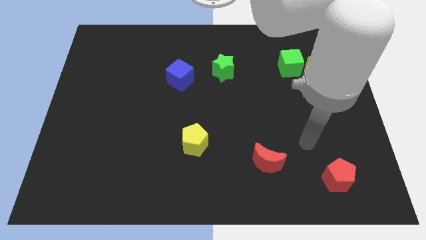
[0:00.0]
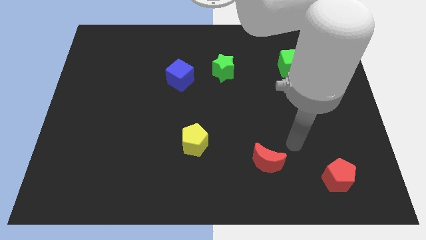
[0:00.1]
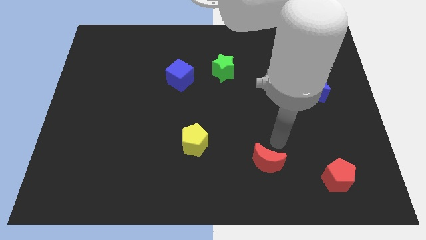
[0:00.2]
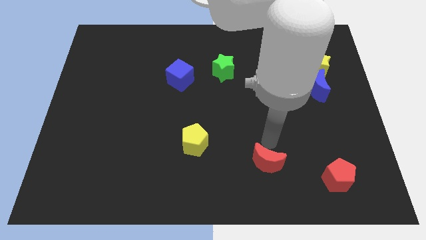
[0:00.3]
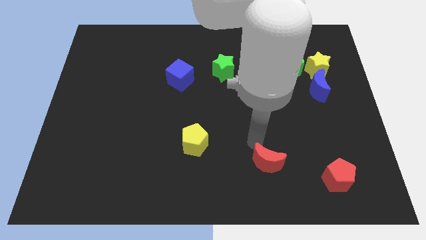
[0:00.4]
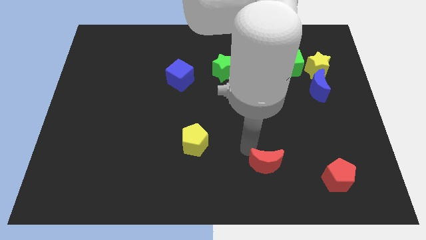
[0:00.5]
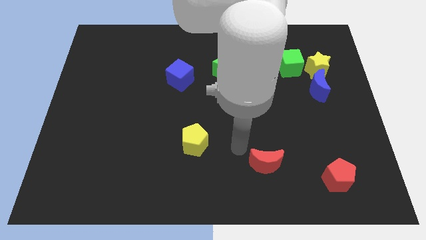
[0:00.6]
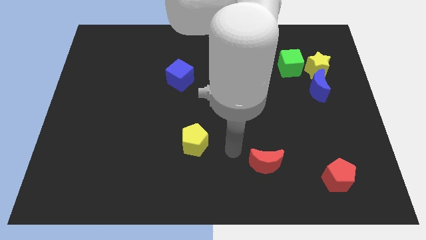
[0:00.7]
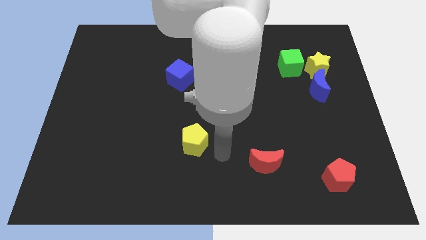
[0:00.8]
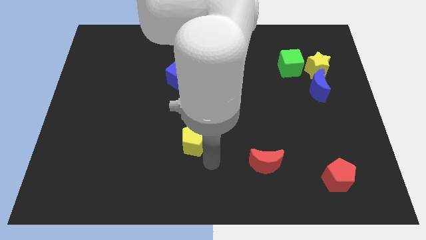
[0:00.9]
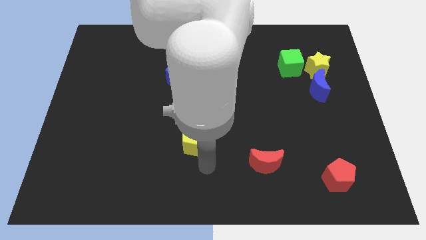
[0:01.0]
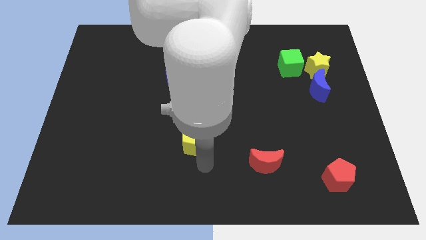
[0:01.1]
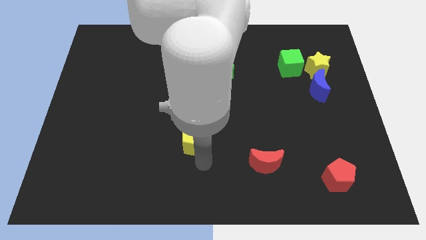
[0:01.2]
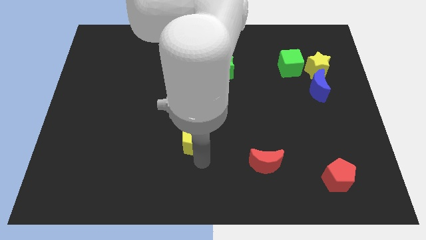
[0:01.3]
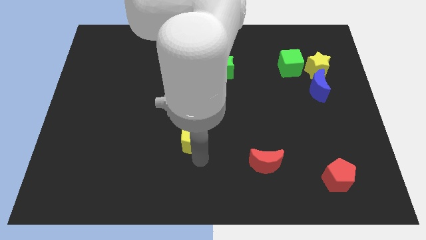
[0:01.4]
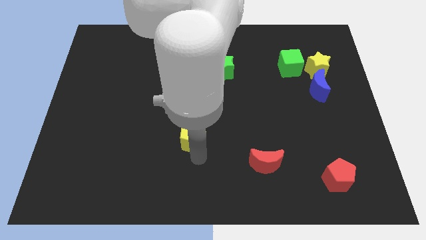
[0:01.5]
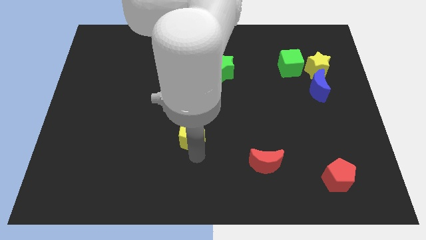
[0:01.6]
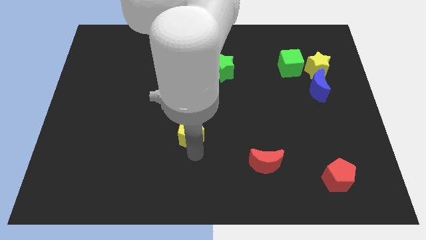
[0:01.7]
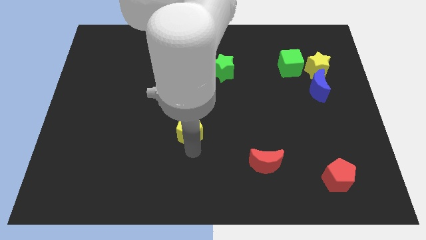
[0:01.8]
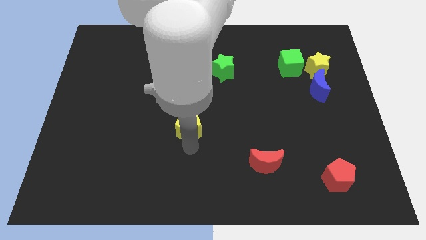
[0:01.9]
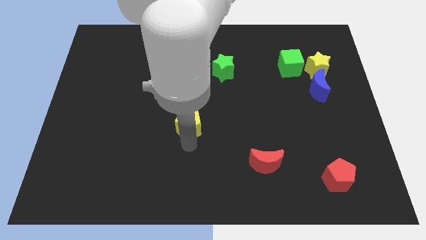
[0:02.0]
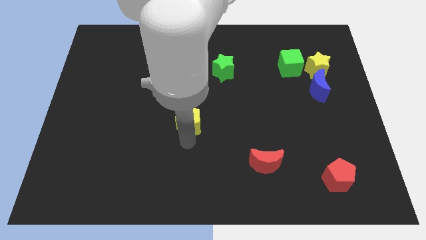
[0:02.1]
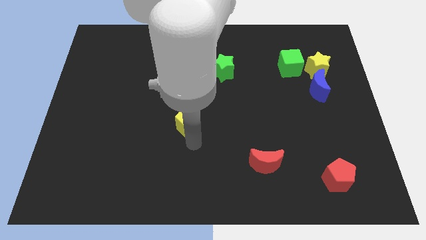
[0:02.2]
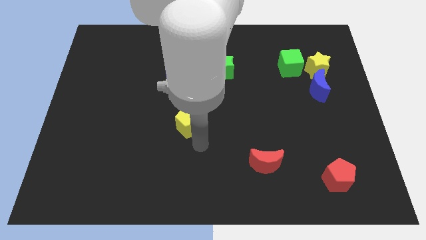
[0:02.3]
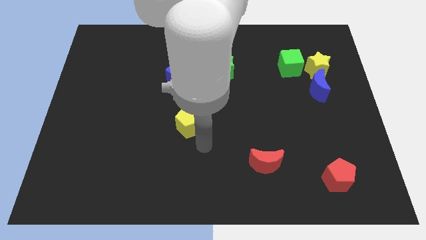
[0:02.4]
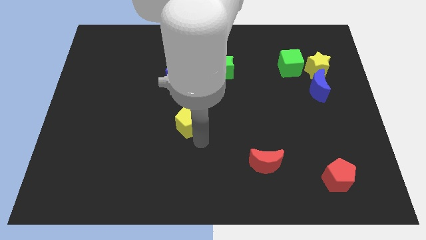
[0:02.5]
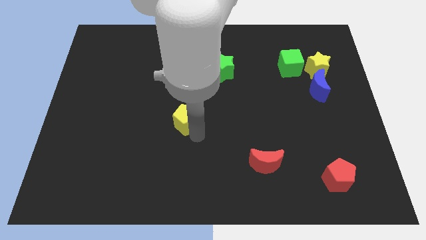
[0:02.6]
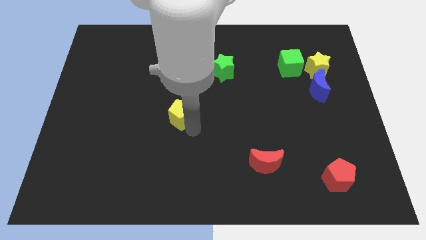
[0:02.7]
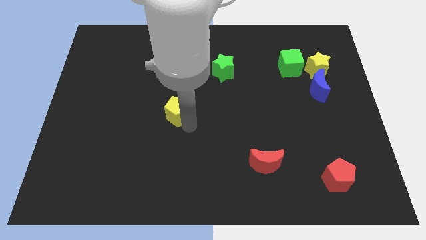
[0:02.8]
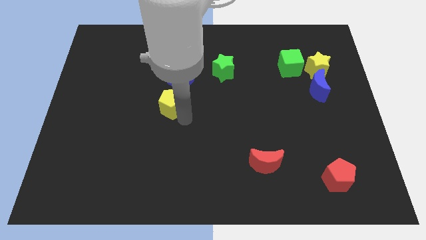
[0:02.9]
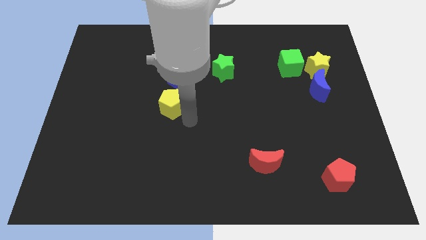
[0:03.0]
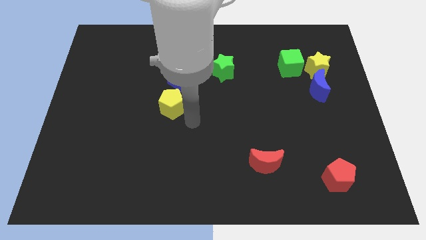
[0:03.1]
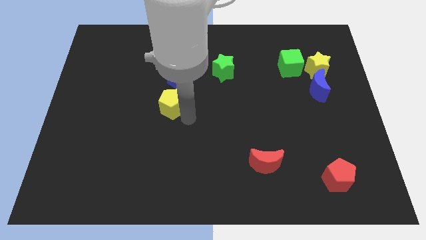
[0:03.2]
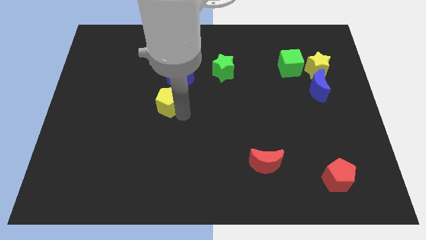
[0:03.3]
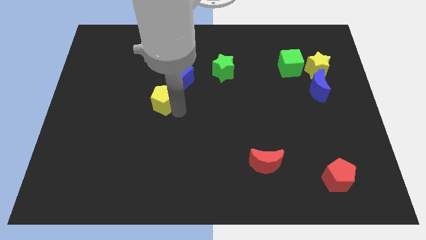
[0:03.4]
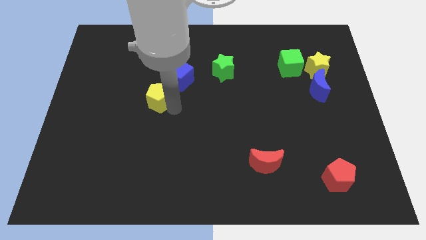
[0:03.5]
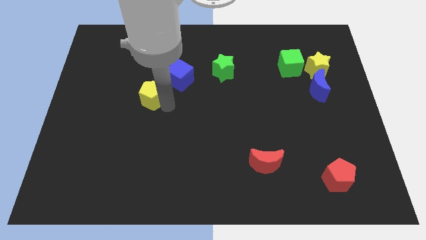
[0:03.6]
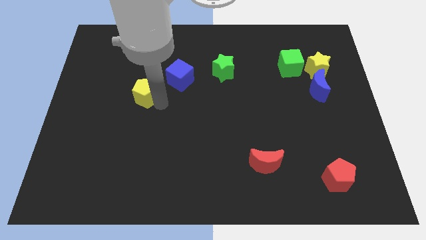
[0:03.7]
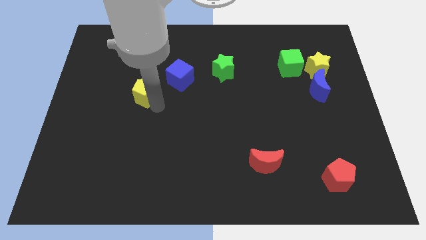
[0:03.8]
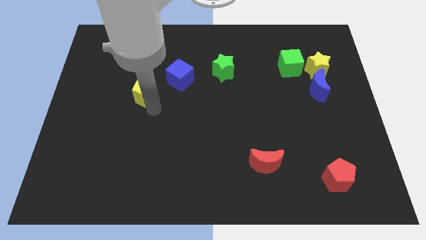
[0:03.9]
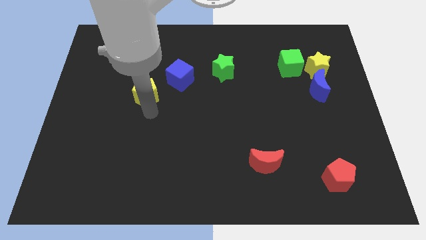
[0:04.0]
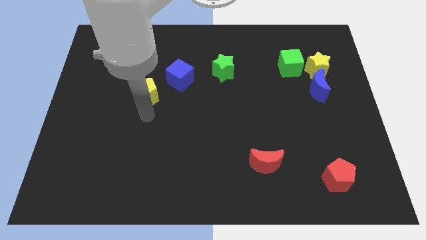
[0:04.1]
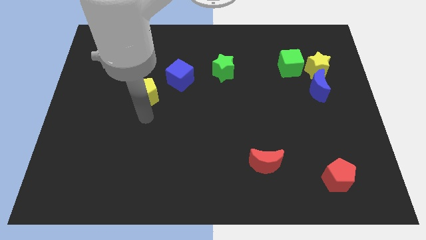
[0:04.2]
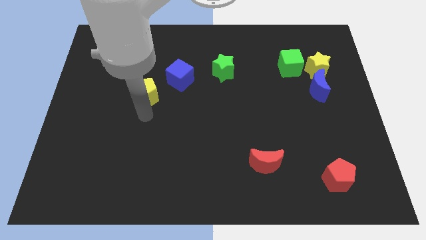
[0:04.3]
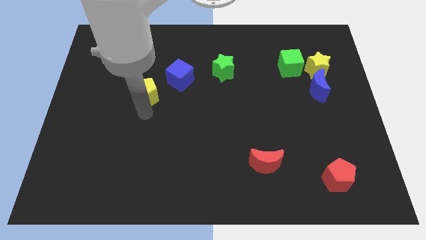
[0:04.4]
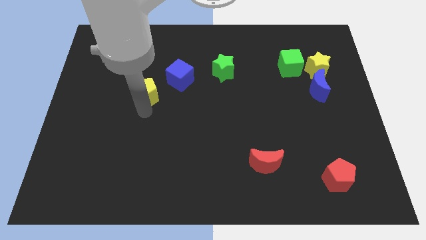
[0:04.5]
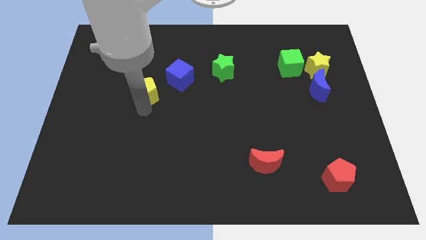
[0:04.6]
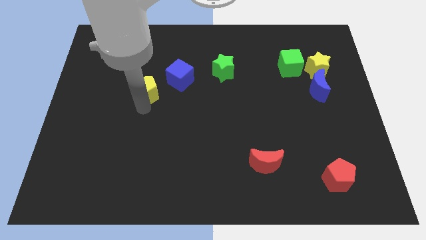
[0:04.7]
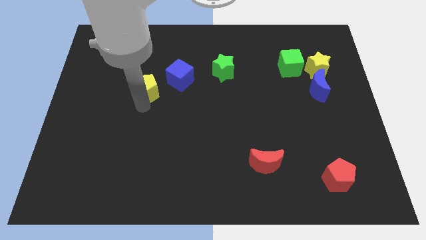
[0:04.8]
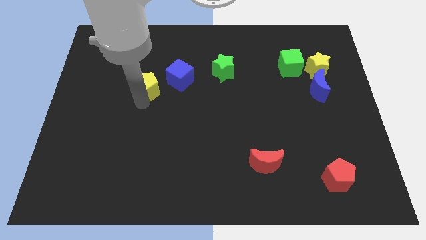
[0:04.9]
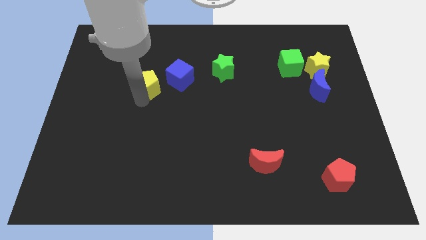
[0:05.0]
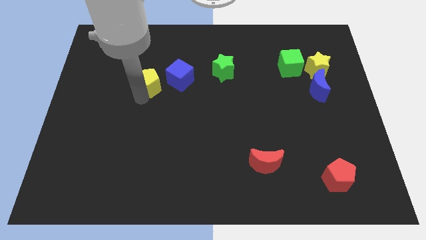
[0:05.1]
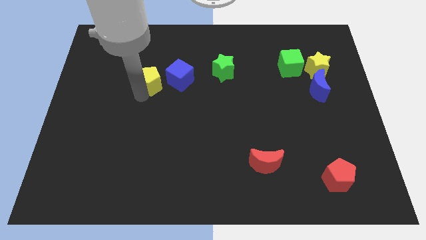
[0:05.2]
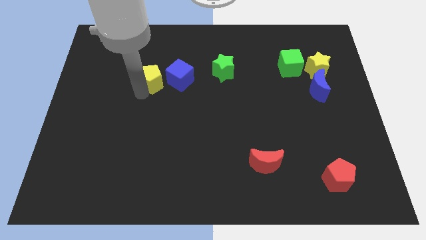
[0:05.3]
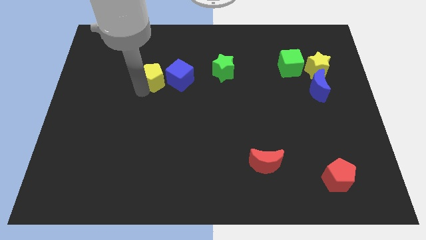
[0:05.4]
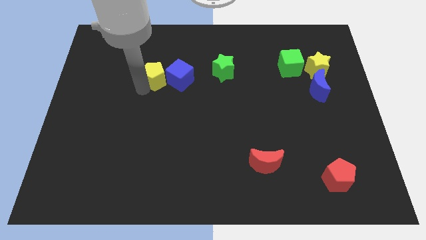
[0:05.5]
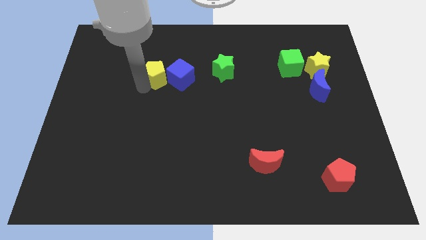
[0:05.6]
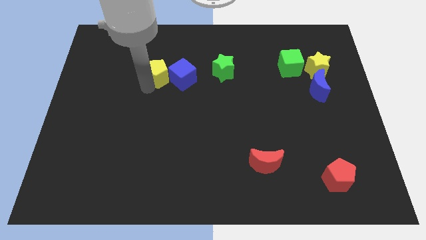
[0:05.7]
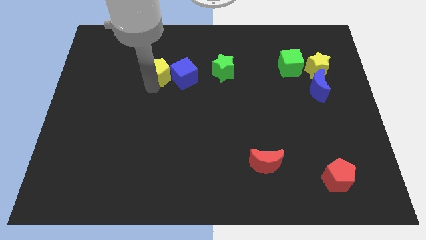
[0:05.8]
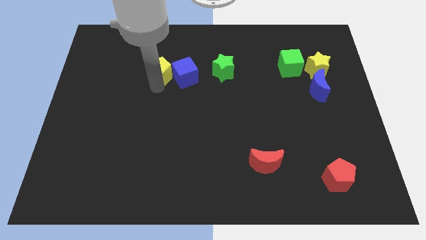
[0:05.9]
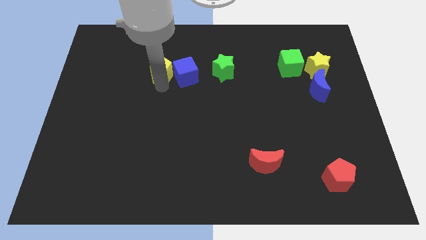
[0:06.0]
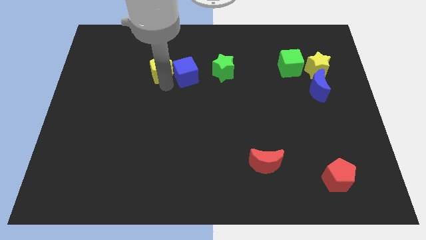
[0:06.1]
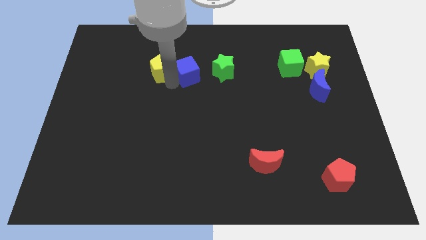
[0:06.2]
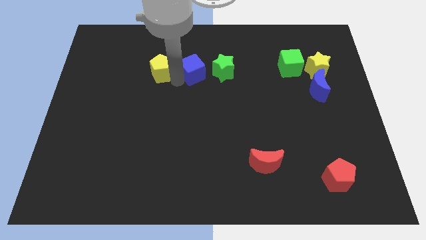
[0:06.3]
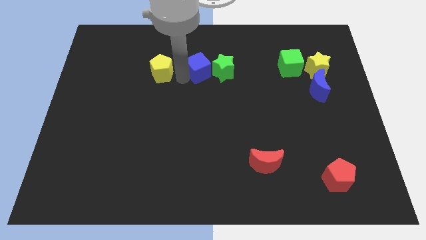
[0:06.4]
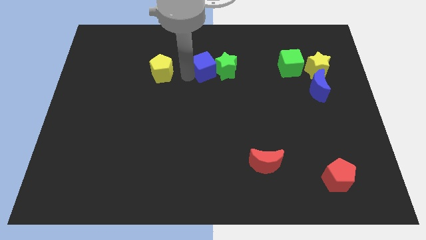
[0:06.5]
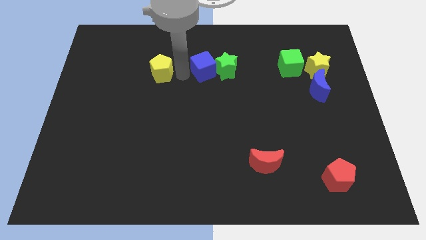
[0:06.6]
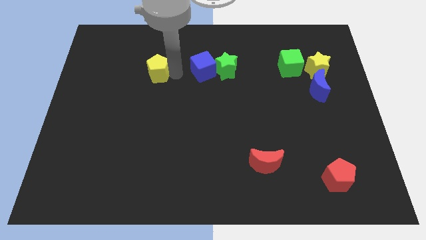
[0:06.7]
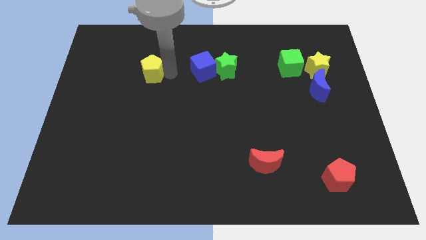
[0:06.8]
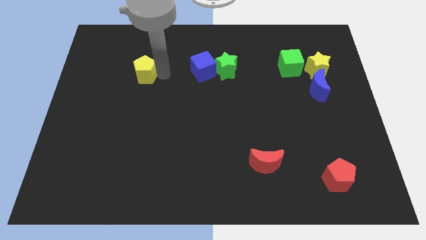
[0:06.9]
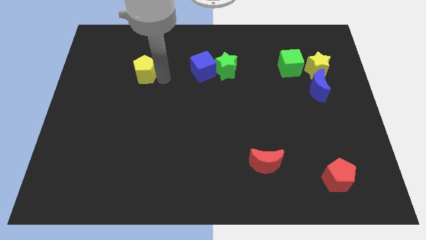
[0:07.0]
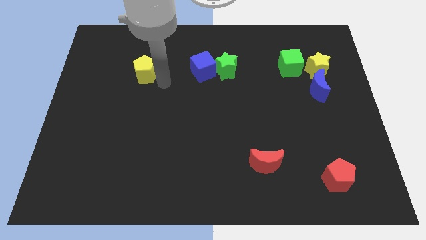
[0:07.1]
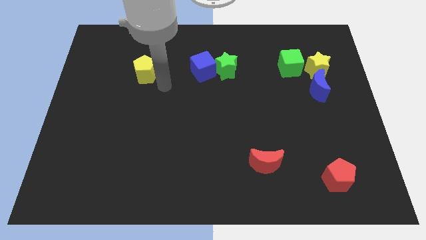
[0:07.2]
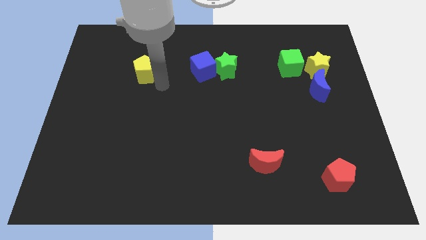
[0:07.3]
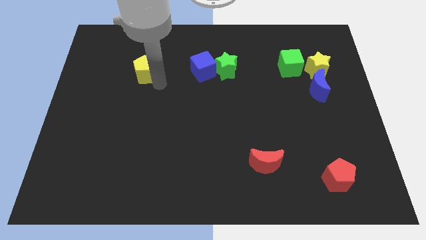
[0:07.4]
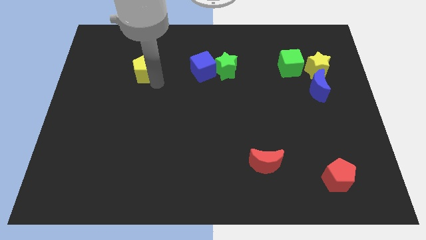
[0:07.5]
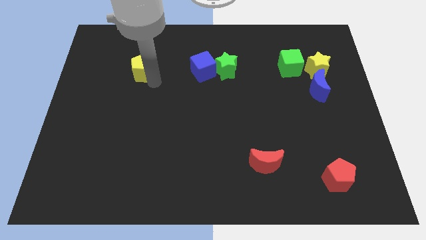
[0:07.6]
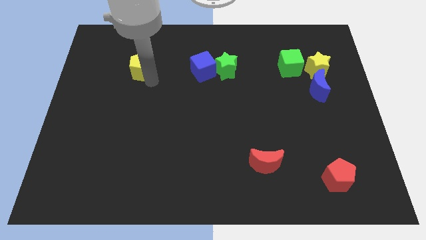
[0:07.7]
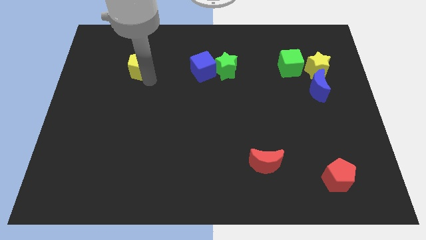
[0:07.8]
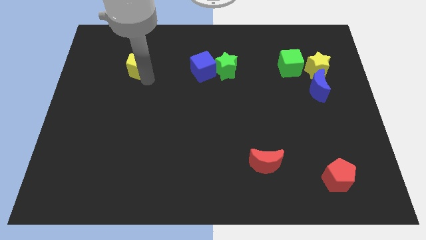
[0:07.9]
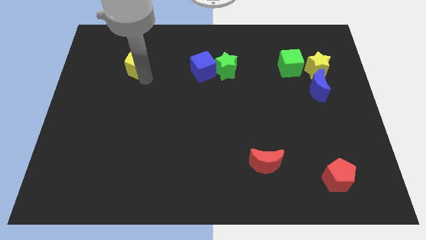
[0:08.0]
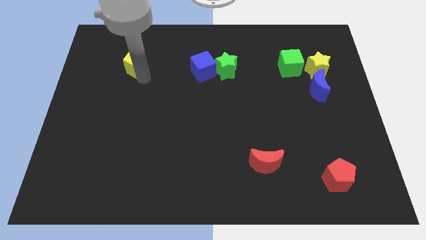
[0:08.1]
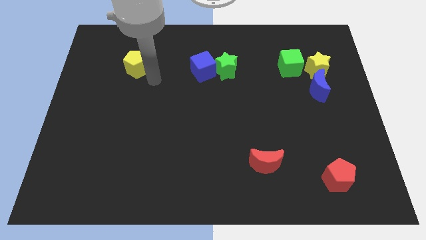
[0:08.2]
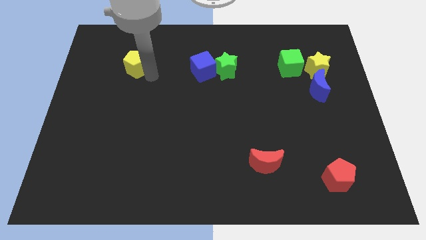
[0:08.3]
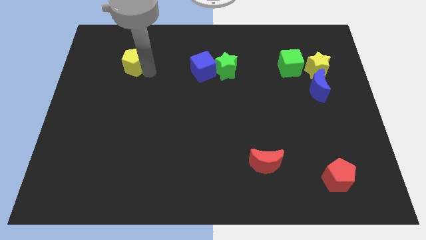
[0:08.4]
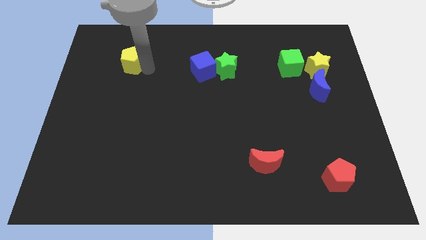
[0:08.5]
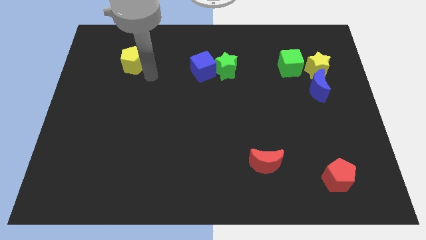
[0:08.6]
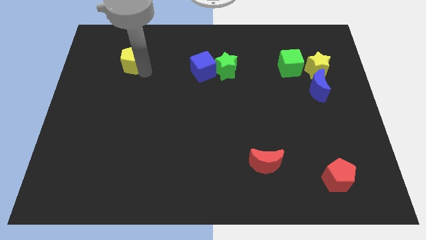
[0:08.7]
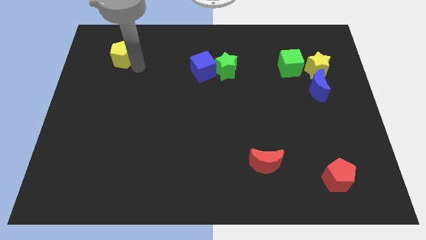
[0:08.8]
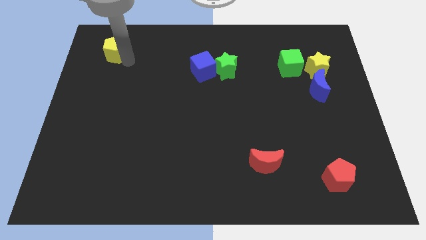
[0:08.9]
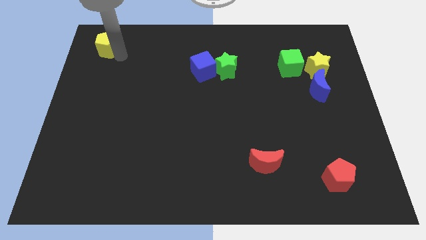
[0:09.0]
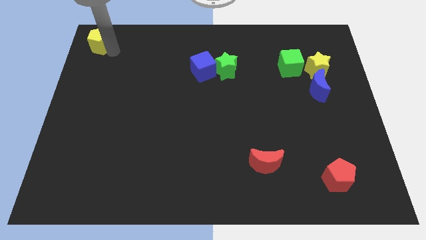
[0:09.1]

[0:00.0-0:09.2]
move the yellow pentagon to the top left
